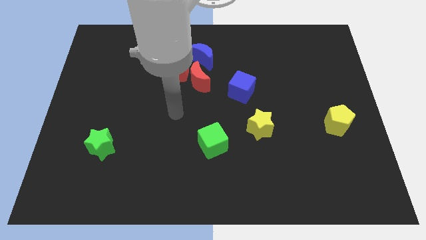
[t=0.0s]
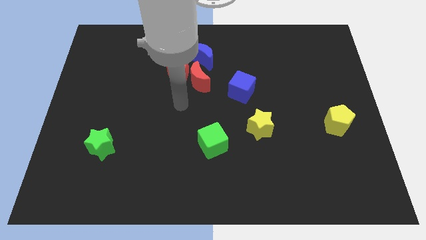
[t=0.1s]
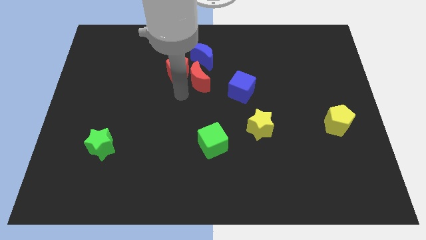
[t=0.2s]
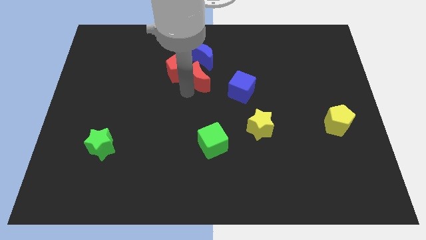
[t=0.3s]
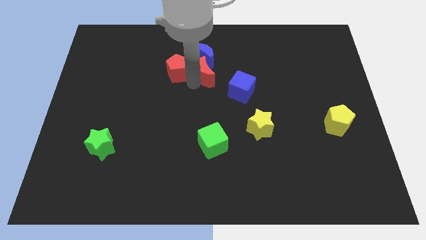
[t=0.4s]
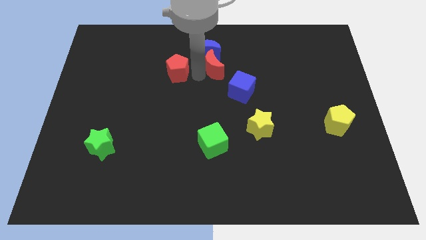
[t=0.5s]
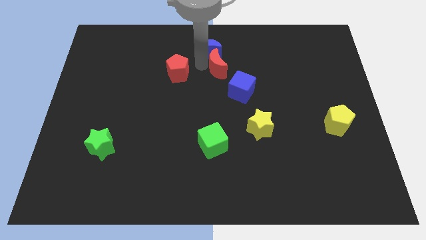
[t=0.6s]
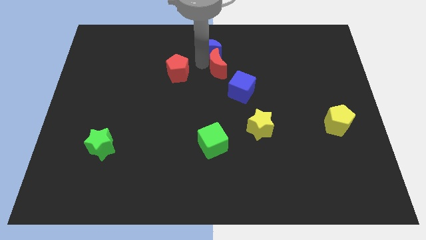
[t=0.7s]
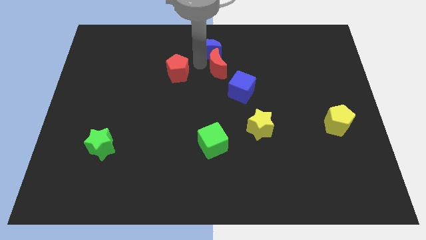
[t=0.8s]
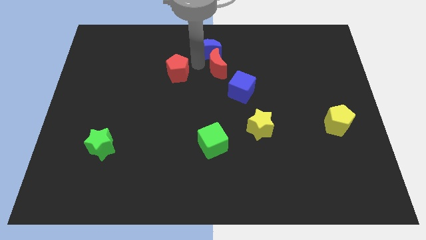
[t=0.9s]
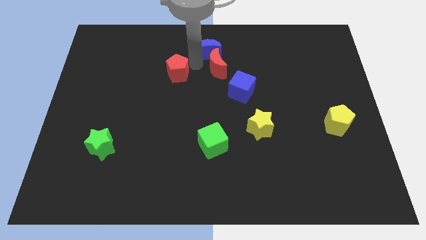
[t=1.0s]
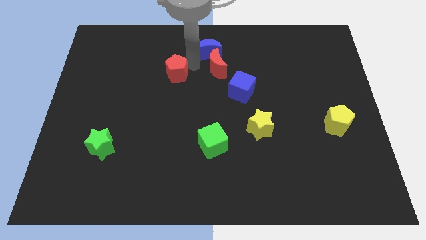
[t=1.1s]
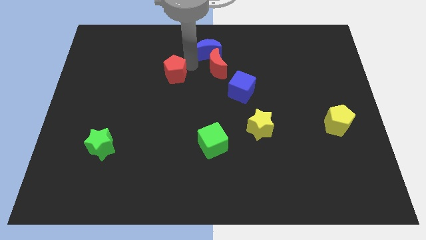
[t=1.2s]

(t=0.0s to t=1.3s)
pull the red pentagon apart from the red moon and blue moon

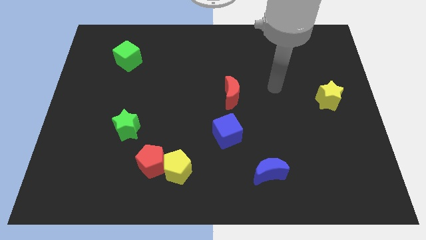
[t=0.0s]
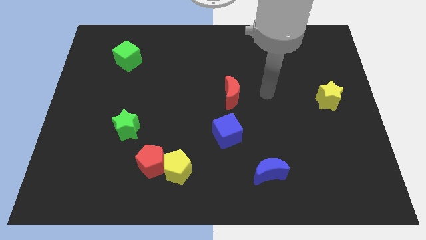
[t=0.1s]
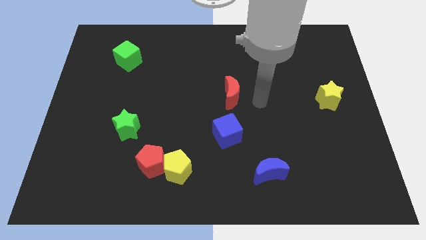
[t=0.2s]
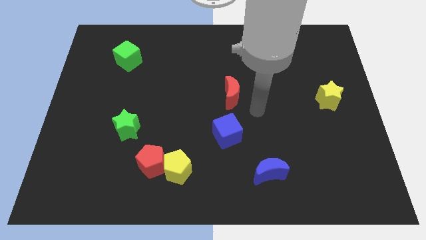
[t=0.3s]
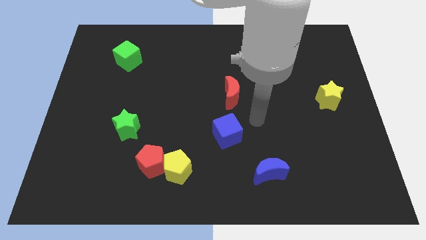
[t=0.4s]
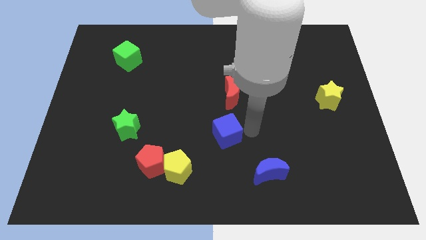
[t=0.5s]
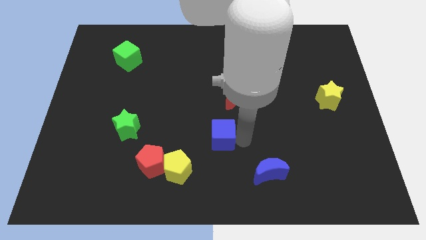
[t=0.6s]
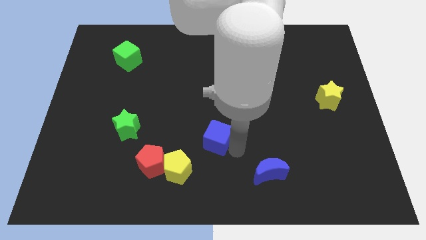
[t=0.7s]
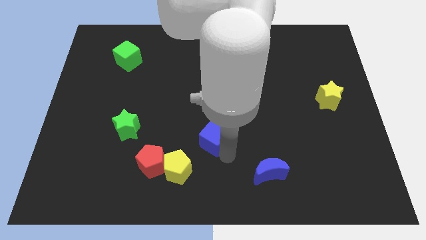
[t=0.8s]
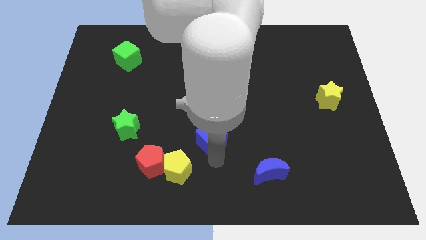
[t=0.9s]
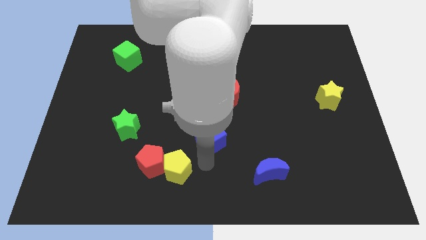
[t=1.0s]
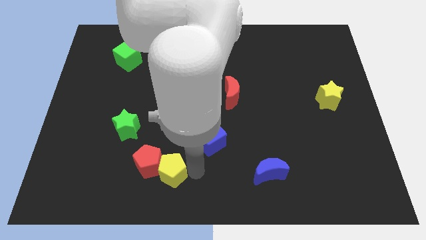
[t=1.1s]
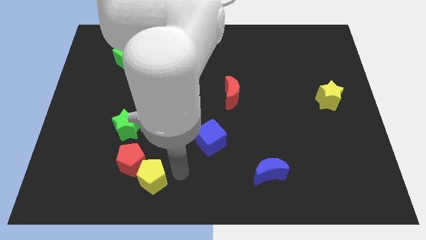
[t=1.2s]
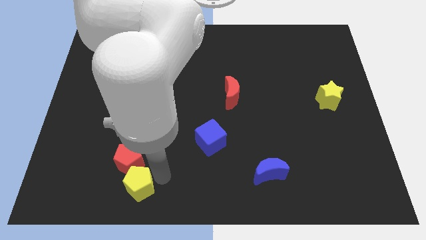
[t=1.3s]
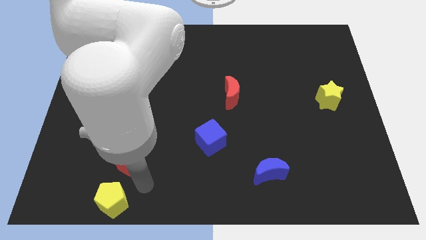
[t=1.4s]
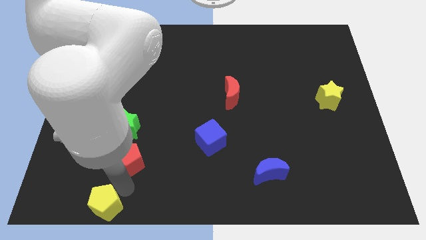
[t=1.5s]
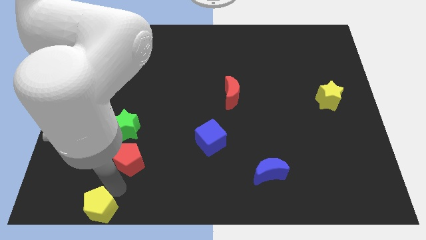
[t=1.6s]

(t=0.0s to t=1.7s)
separate the red pentagon from the yellow pentagon

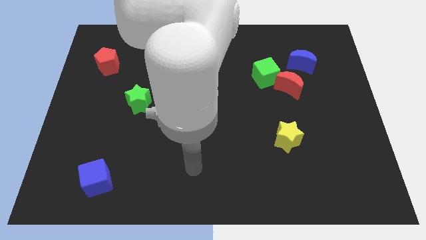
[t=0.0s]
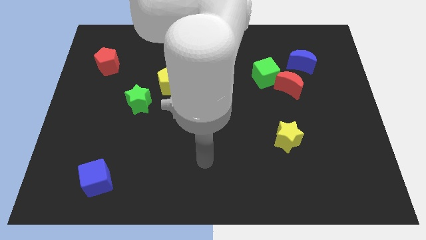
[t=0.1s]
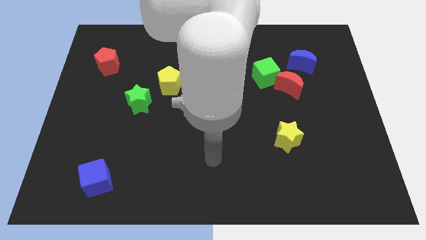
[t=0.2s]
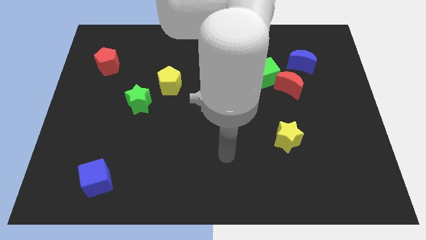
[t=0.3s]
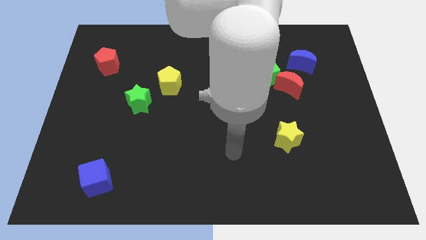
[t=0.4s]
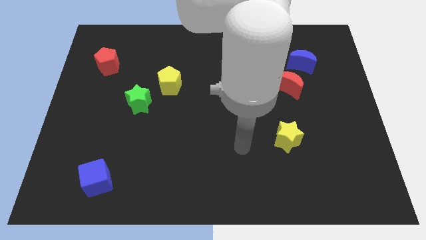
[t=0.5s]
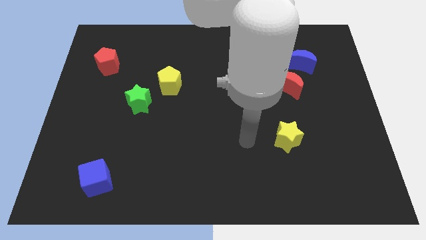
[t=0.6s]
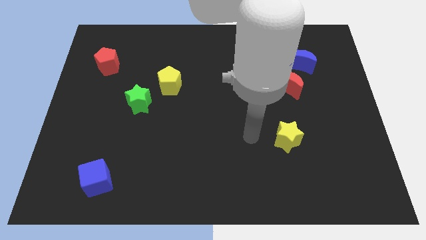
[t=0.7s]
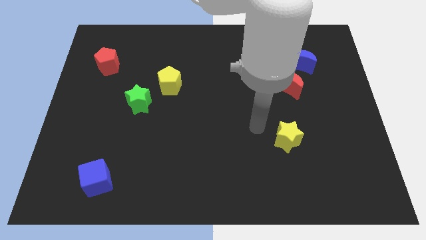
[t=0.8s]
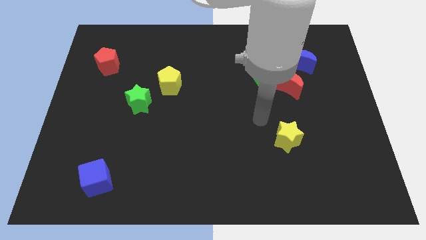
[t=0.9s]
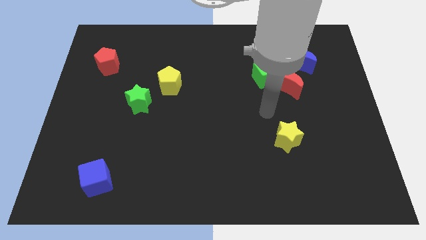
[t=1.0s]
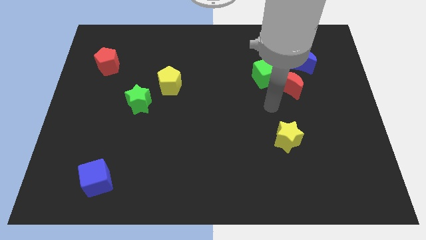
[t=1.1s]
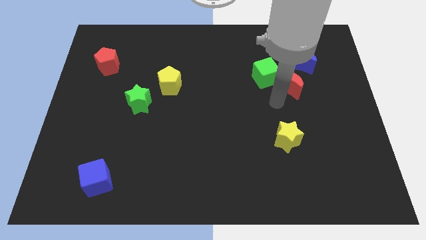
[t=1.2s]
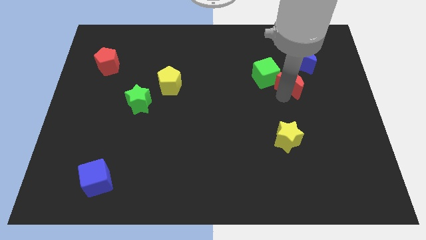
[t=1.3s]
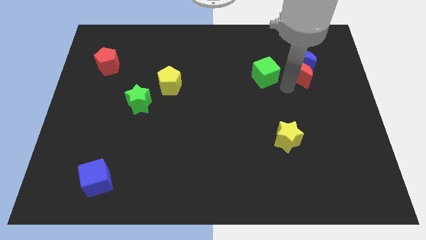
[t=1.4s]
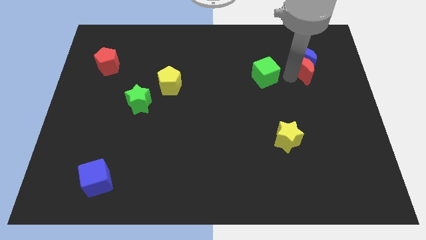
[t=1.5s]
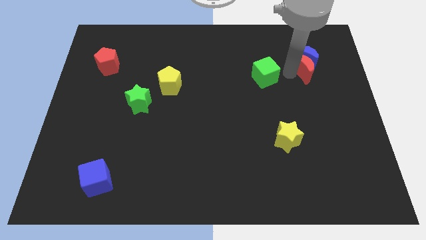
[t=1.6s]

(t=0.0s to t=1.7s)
move the green cube away from the red moon

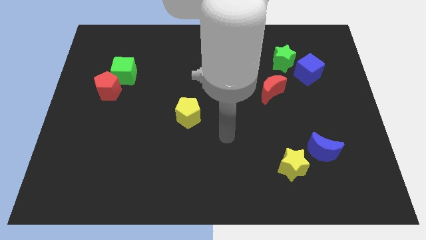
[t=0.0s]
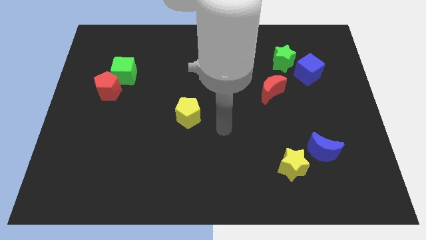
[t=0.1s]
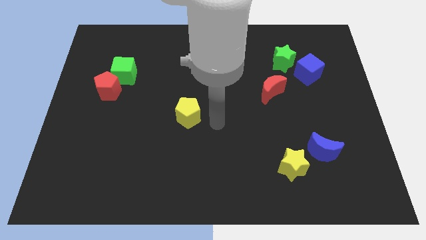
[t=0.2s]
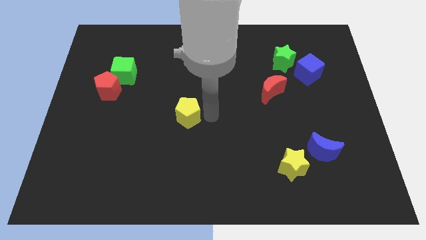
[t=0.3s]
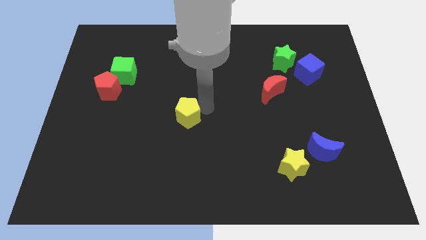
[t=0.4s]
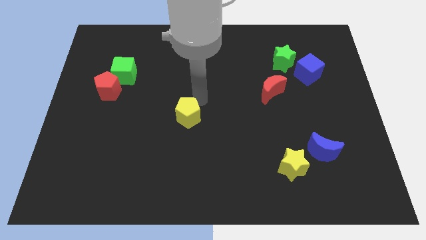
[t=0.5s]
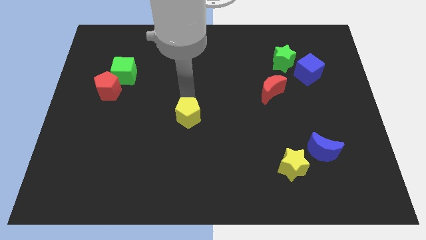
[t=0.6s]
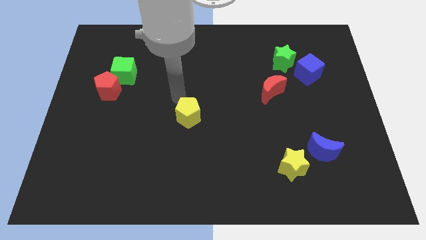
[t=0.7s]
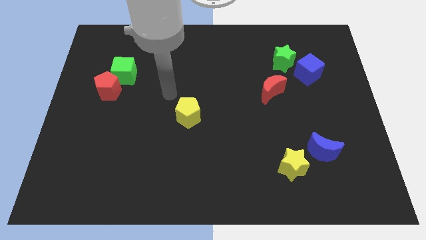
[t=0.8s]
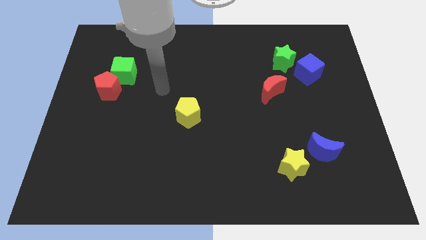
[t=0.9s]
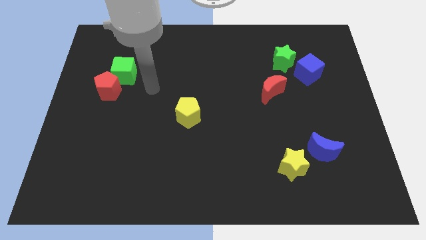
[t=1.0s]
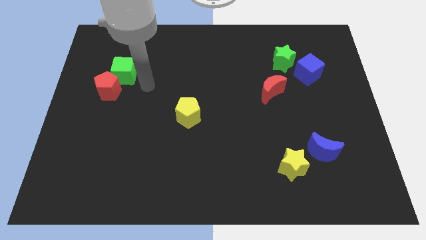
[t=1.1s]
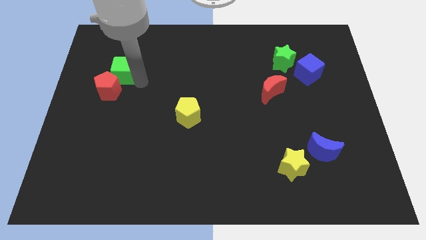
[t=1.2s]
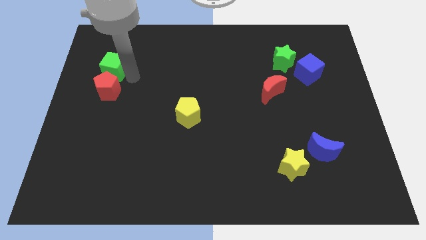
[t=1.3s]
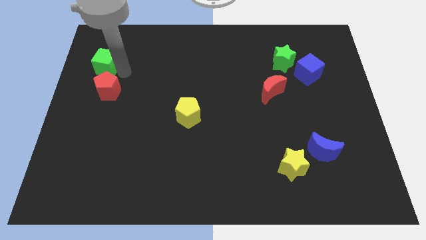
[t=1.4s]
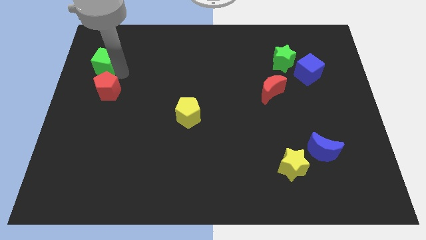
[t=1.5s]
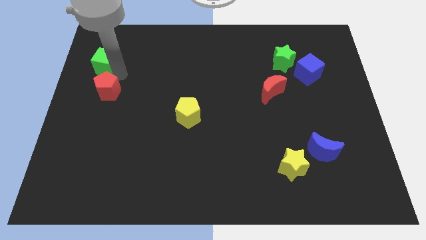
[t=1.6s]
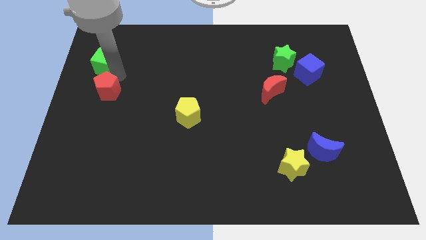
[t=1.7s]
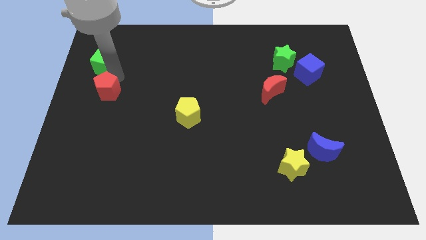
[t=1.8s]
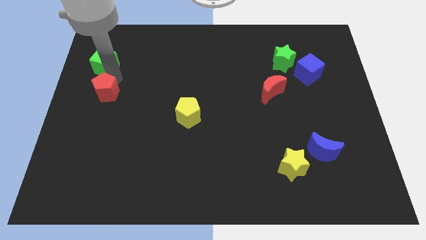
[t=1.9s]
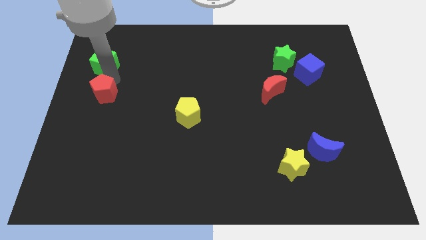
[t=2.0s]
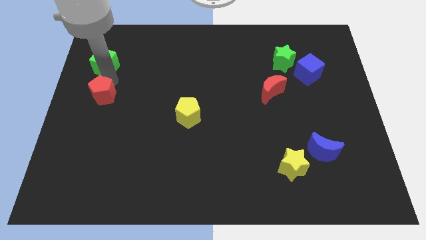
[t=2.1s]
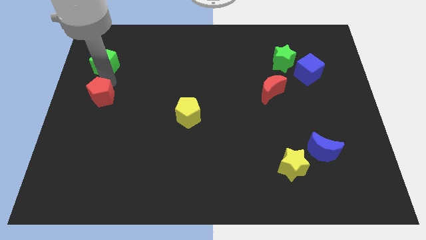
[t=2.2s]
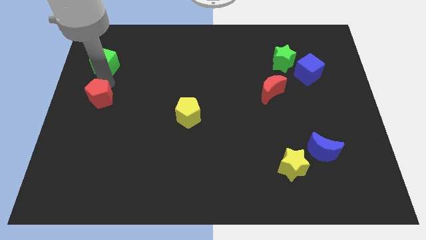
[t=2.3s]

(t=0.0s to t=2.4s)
move the red pentagon away from the green cube

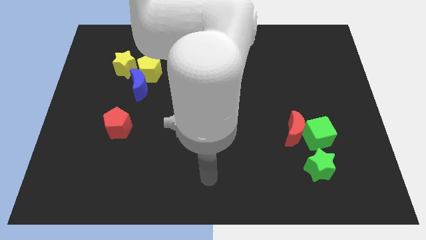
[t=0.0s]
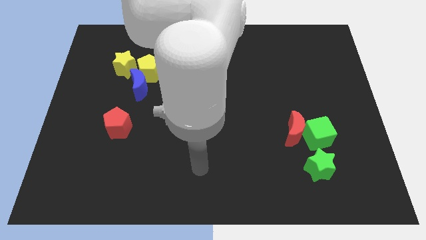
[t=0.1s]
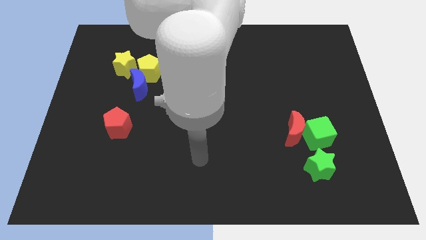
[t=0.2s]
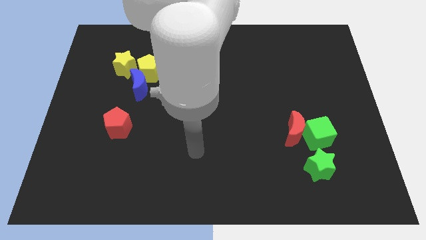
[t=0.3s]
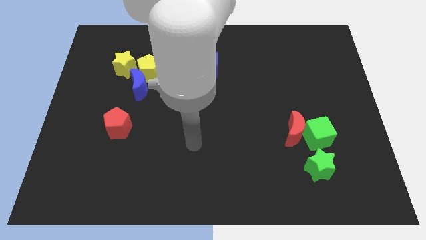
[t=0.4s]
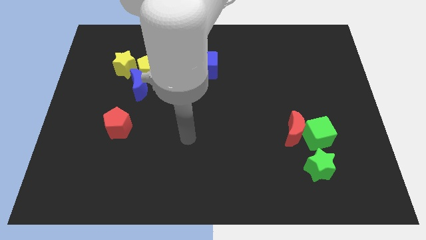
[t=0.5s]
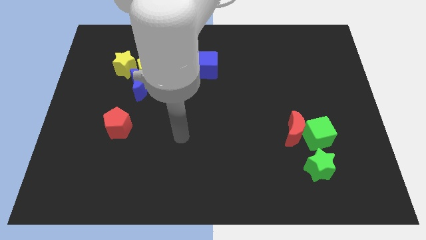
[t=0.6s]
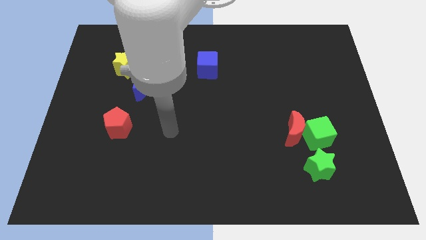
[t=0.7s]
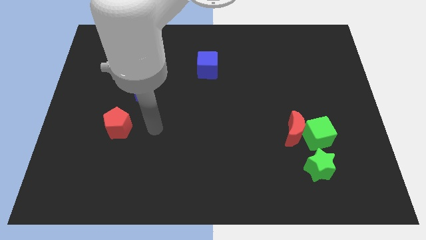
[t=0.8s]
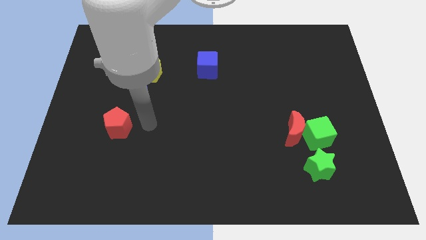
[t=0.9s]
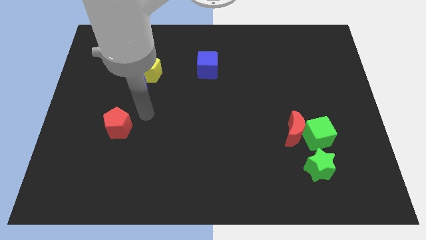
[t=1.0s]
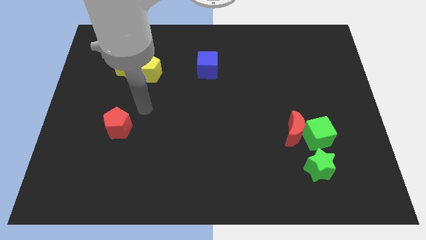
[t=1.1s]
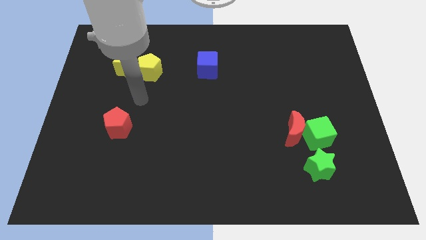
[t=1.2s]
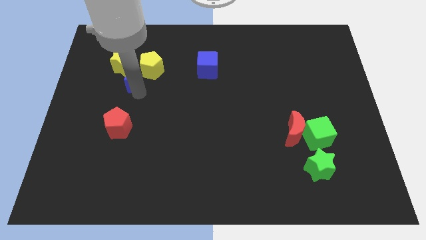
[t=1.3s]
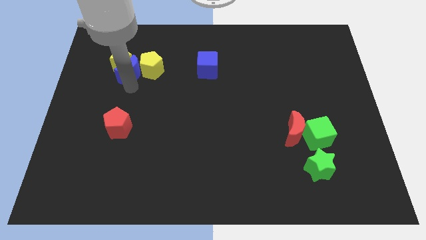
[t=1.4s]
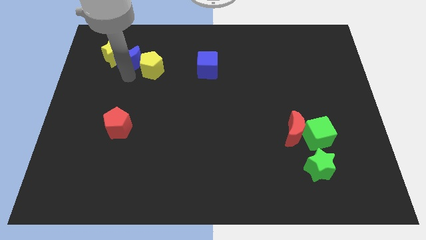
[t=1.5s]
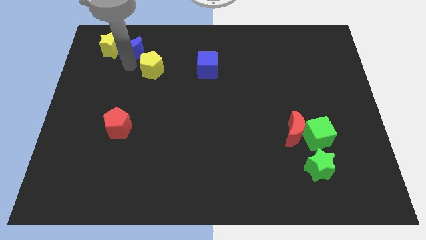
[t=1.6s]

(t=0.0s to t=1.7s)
move the yellow pentagon away from the blue moon and yellow star

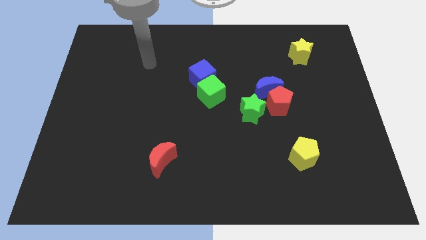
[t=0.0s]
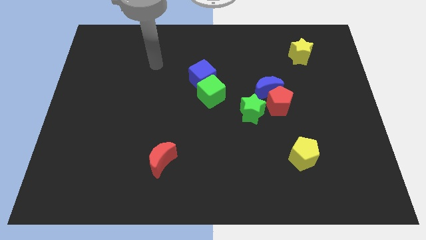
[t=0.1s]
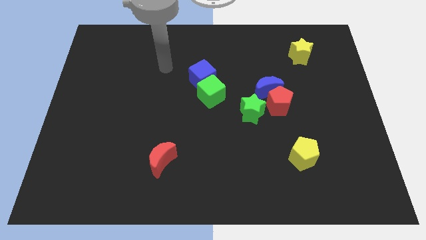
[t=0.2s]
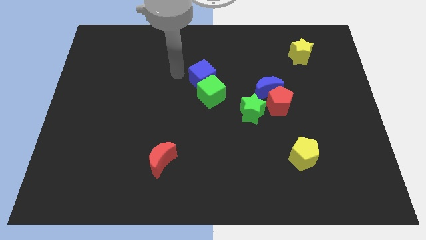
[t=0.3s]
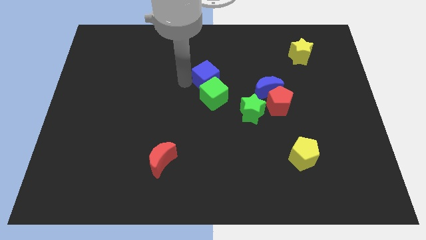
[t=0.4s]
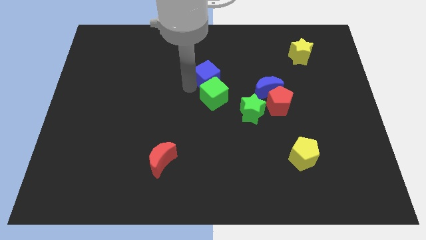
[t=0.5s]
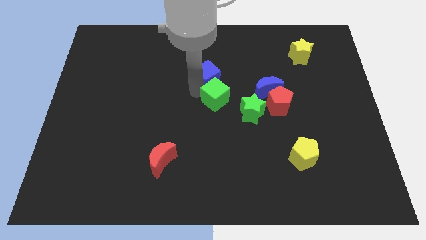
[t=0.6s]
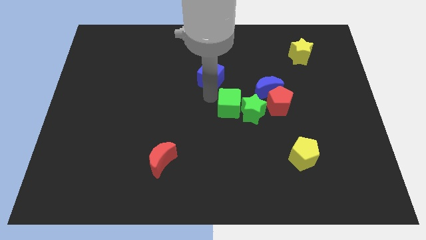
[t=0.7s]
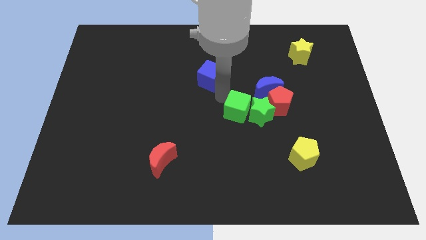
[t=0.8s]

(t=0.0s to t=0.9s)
move the blue cube away from the green cube
